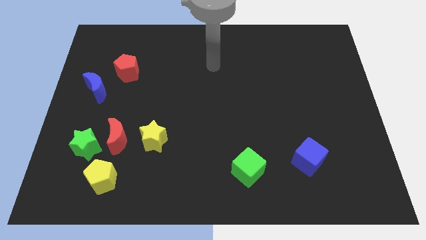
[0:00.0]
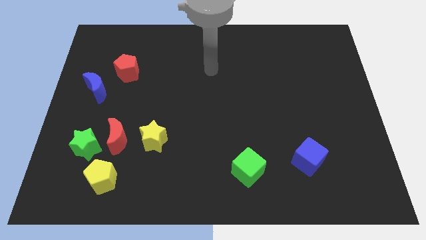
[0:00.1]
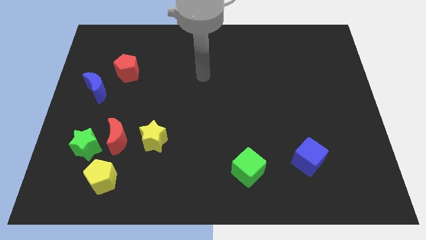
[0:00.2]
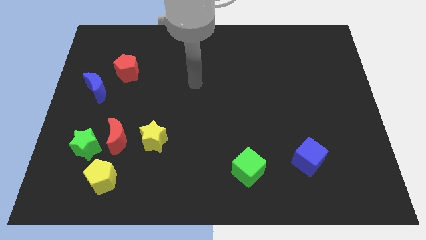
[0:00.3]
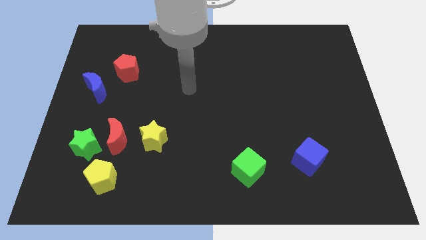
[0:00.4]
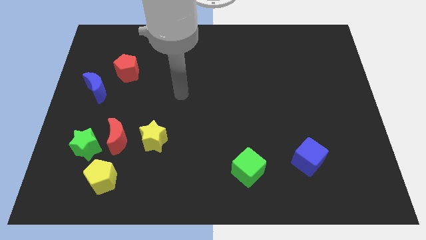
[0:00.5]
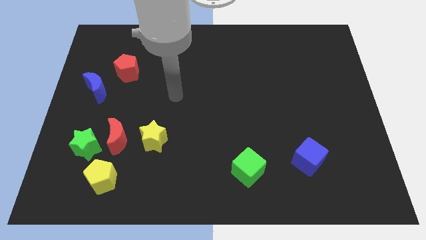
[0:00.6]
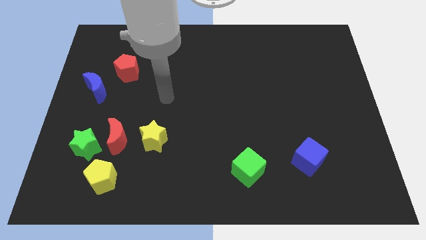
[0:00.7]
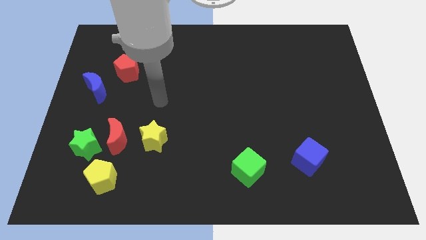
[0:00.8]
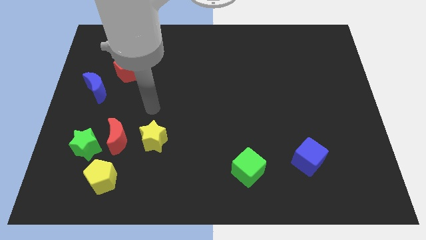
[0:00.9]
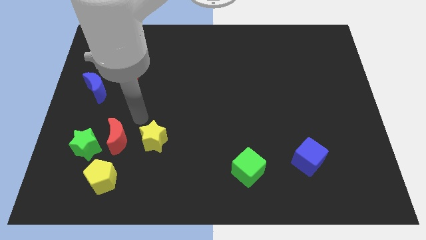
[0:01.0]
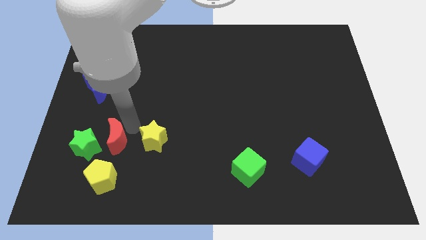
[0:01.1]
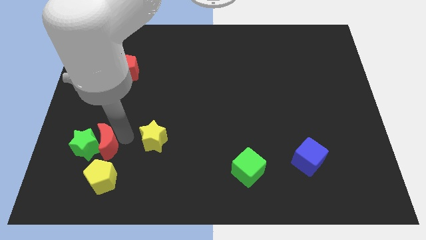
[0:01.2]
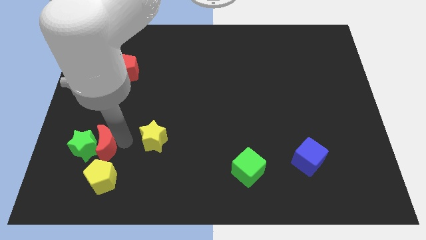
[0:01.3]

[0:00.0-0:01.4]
move the yellow star away from the red moon

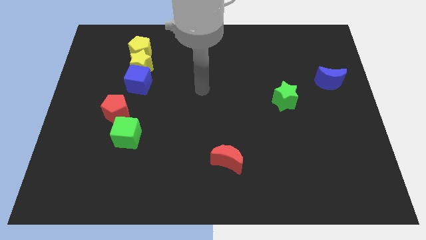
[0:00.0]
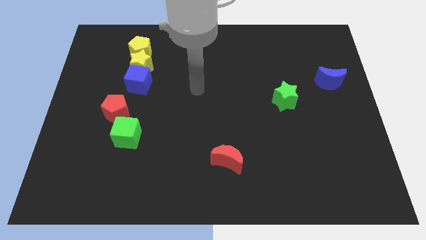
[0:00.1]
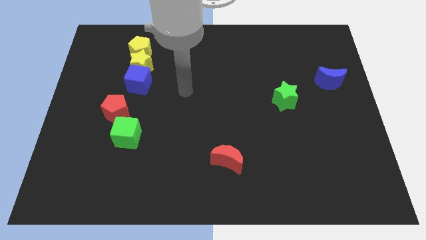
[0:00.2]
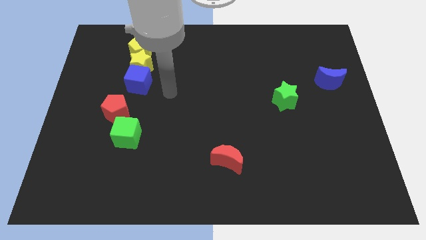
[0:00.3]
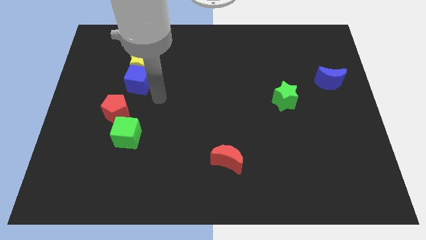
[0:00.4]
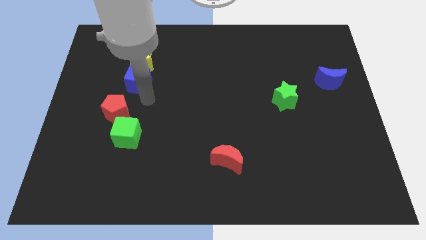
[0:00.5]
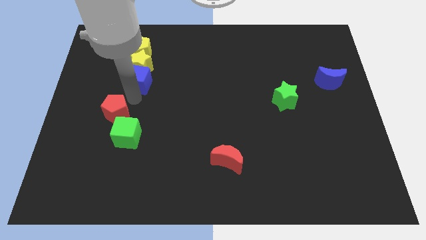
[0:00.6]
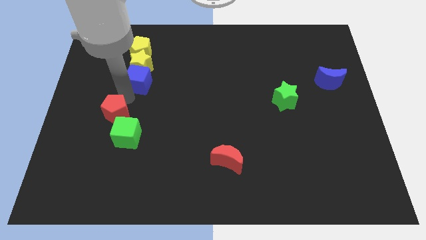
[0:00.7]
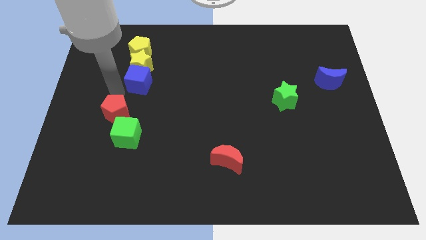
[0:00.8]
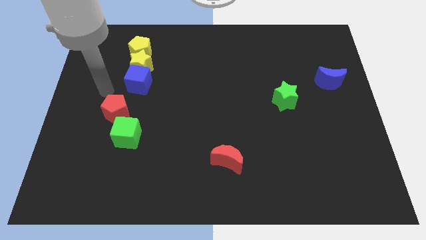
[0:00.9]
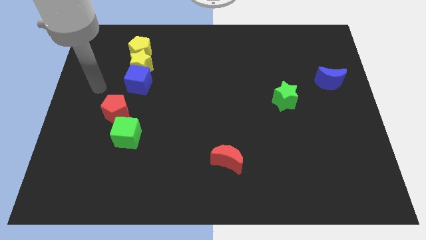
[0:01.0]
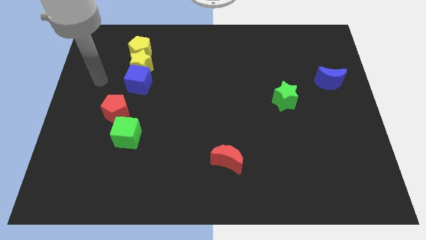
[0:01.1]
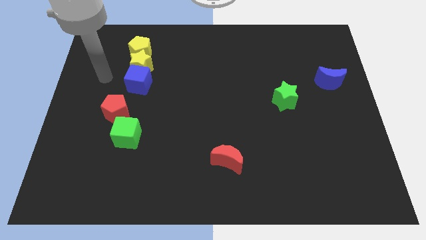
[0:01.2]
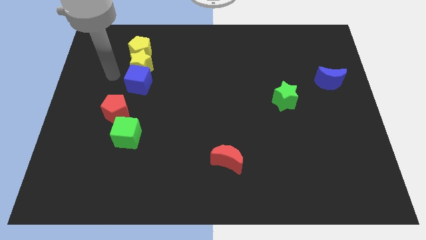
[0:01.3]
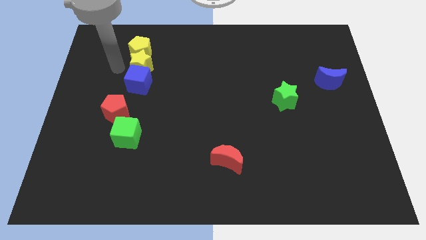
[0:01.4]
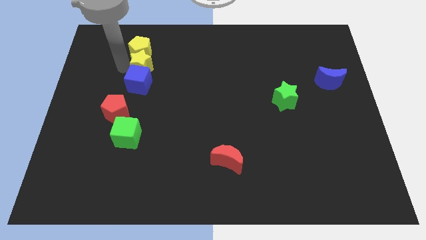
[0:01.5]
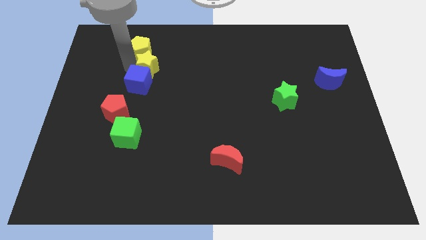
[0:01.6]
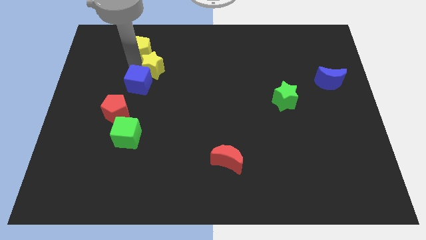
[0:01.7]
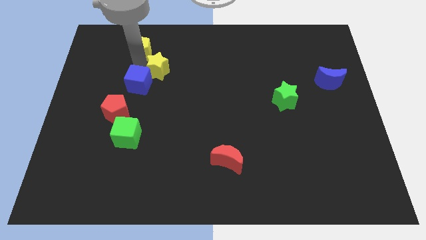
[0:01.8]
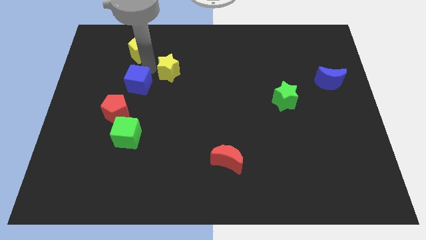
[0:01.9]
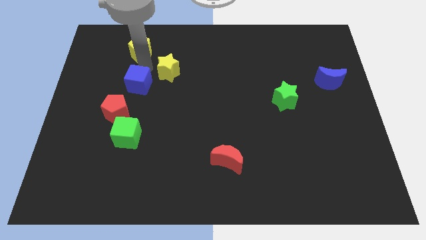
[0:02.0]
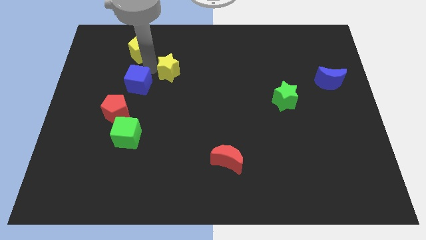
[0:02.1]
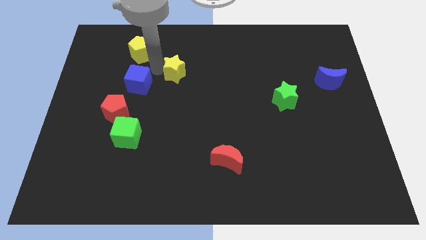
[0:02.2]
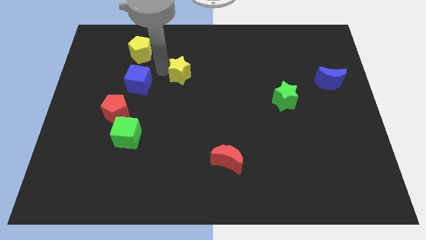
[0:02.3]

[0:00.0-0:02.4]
move the yellow star away from the blue cube and yellow pentagon

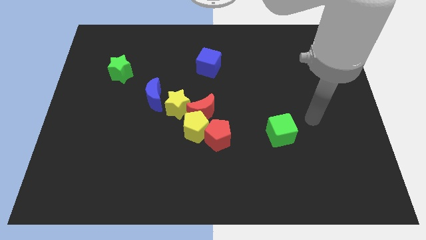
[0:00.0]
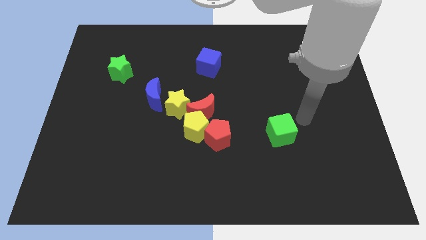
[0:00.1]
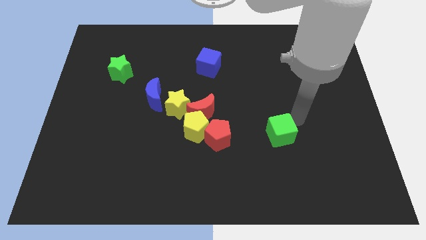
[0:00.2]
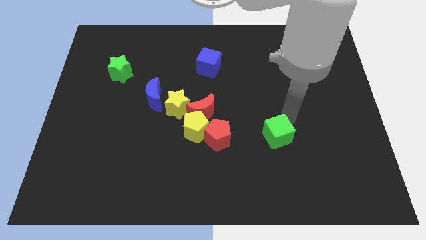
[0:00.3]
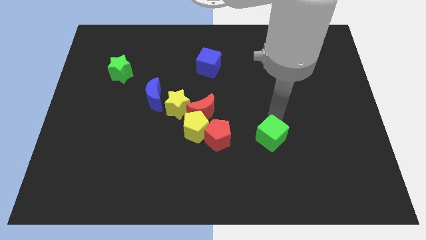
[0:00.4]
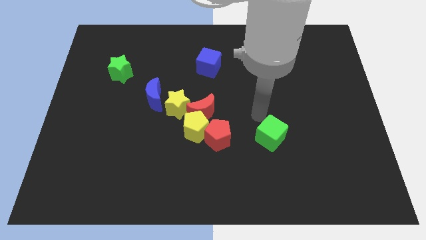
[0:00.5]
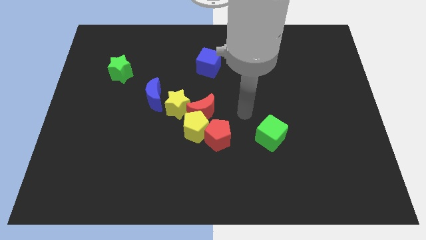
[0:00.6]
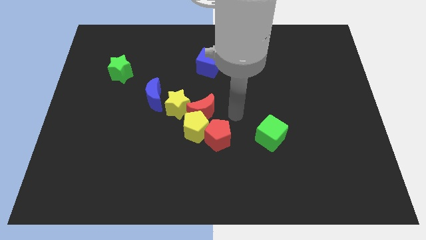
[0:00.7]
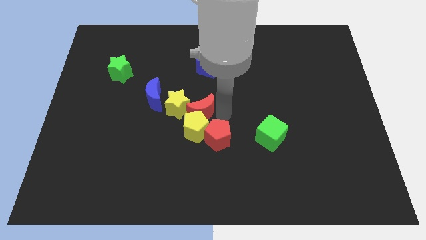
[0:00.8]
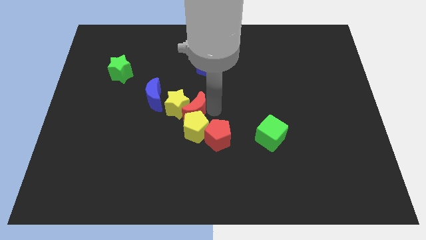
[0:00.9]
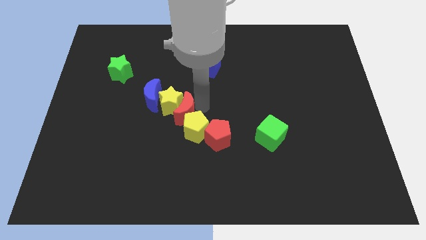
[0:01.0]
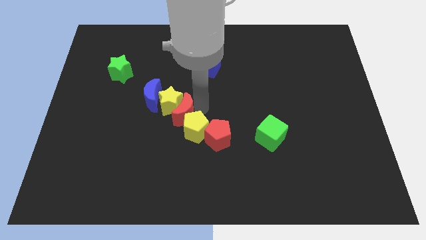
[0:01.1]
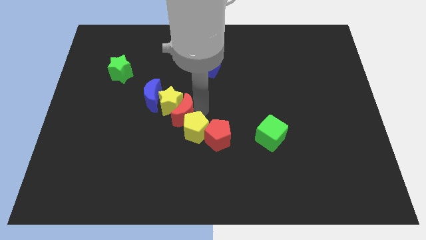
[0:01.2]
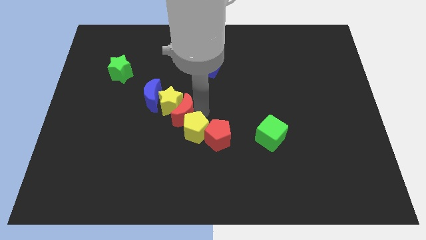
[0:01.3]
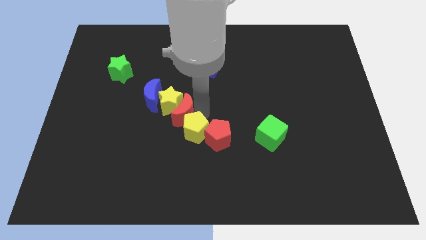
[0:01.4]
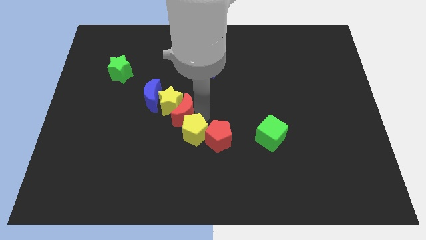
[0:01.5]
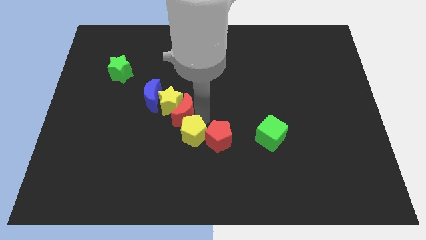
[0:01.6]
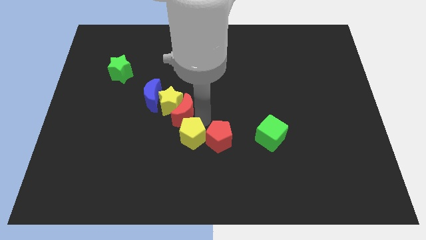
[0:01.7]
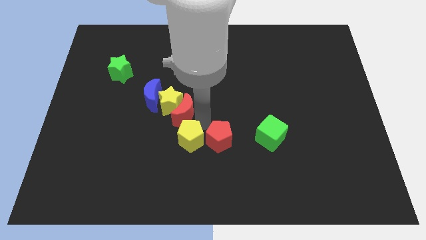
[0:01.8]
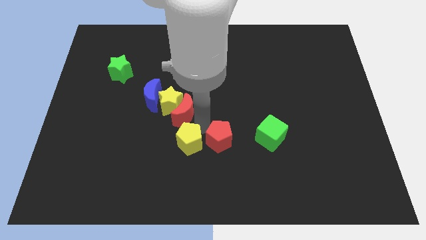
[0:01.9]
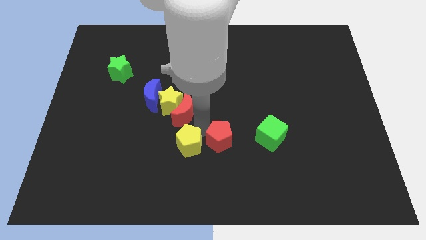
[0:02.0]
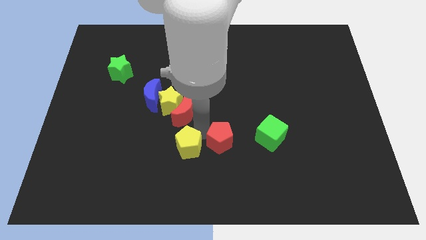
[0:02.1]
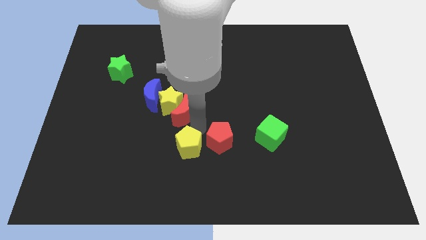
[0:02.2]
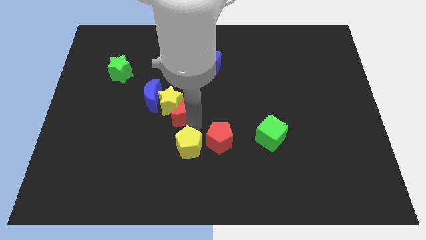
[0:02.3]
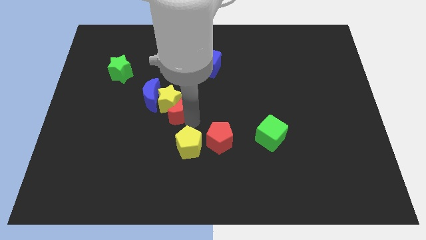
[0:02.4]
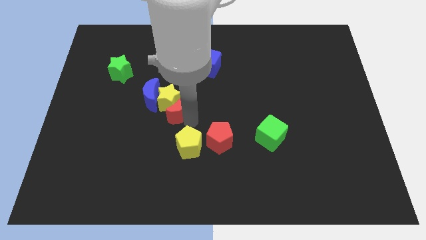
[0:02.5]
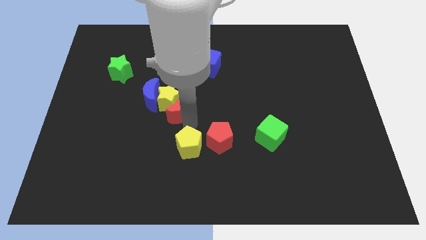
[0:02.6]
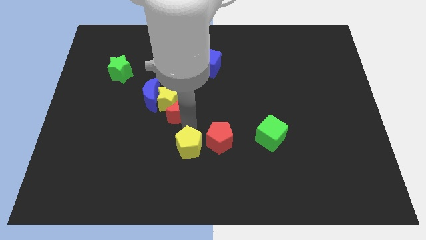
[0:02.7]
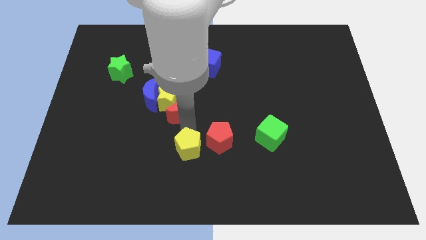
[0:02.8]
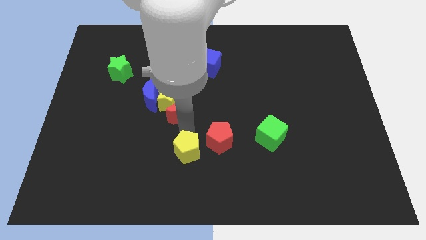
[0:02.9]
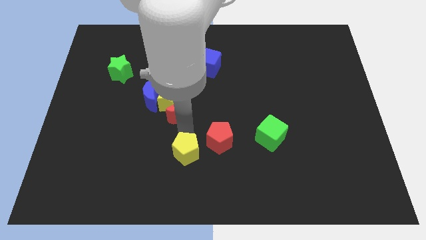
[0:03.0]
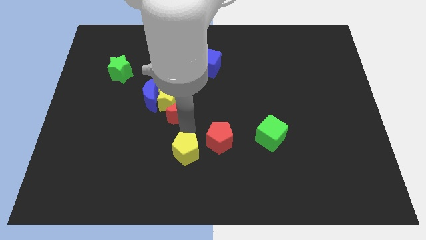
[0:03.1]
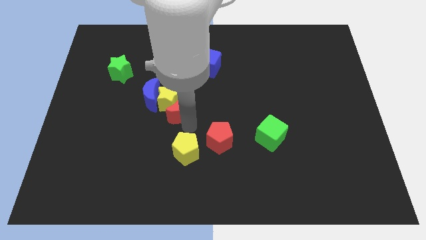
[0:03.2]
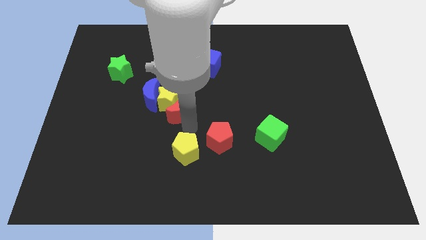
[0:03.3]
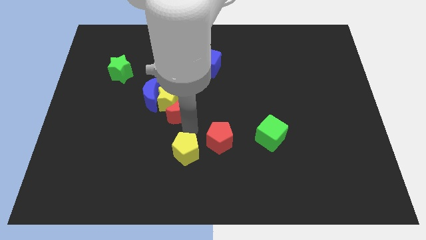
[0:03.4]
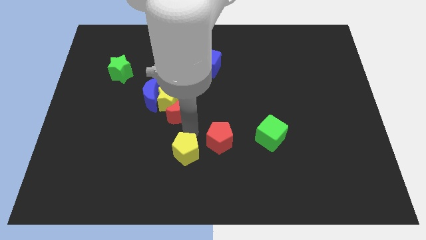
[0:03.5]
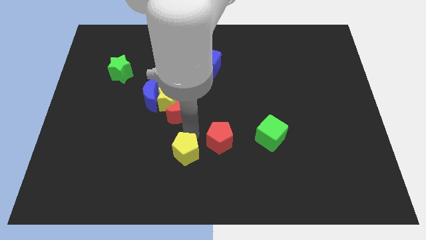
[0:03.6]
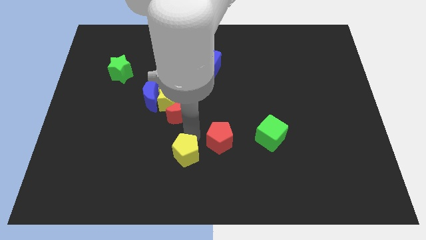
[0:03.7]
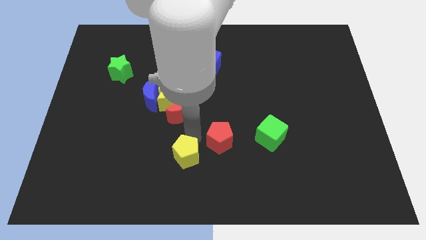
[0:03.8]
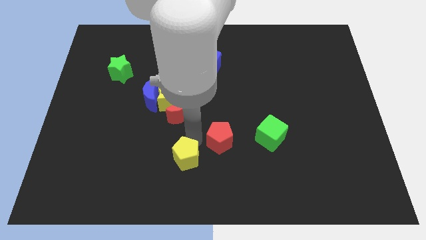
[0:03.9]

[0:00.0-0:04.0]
pull the yellow pentagon apart from the clump

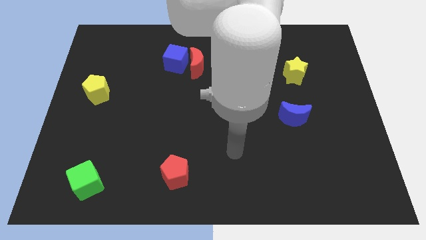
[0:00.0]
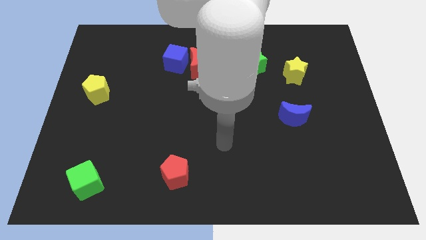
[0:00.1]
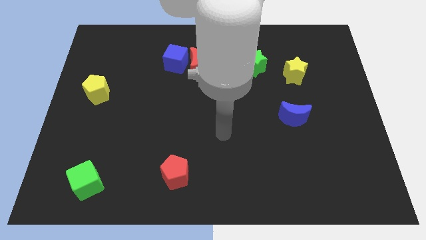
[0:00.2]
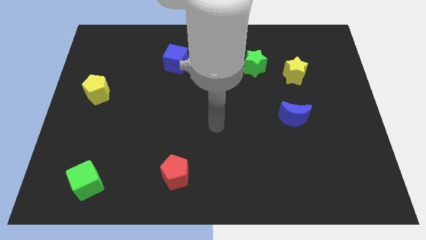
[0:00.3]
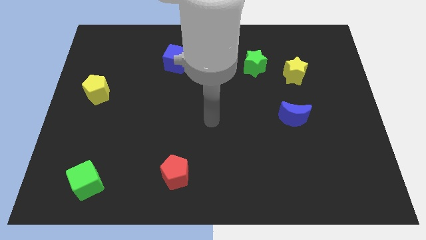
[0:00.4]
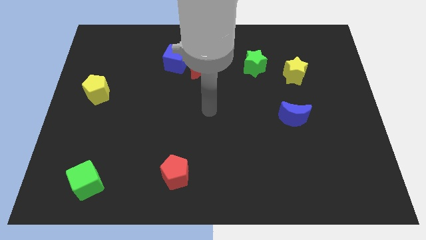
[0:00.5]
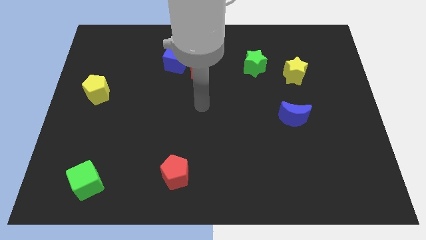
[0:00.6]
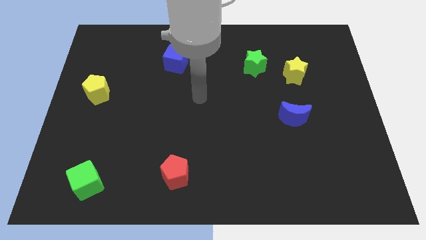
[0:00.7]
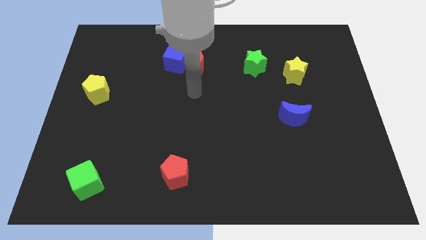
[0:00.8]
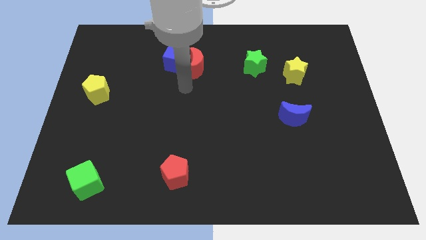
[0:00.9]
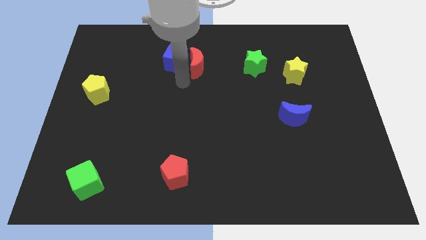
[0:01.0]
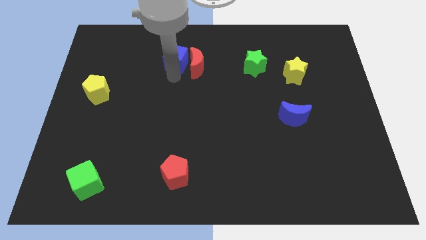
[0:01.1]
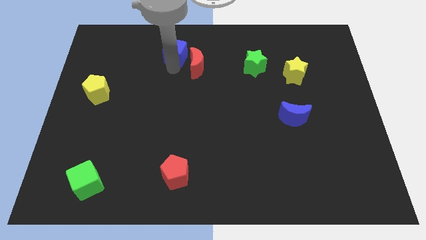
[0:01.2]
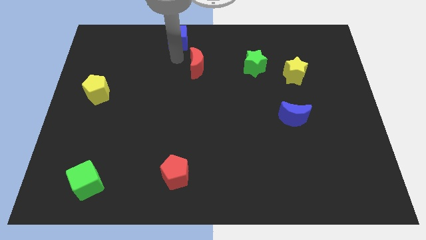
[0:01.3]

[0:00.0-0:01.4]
move the red moon away from the blue cube

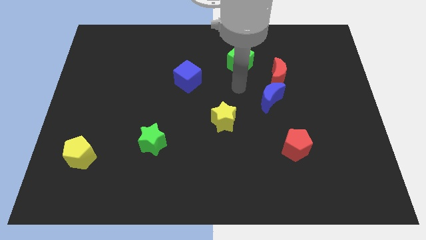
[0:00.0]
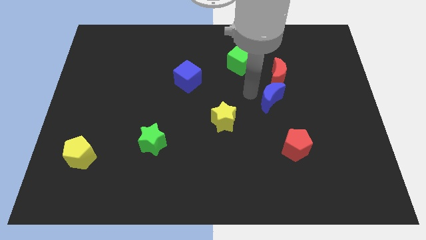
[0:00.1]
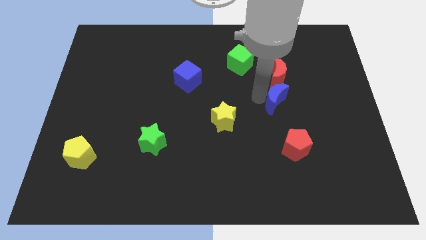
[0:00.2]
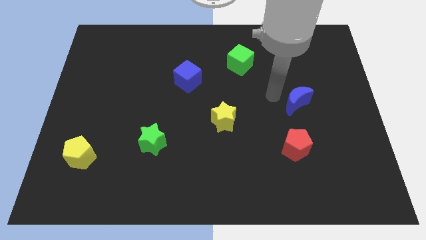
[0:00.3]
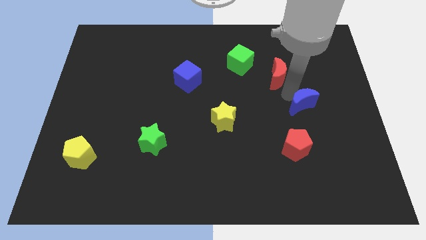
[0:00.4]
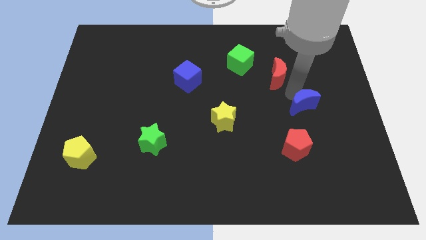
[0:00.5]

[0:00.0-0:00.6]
move the red moon away from the blue moon
